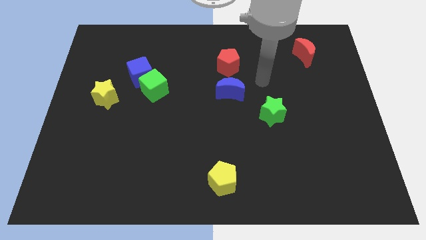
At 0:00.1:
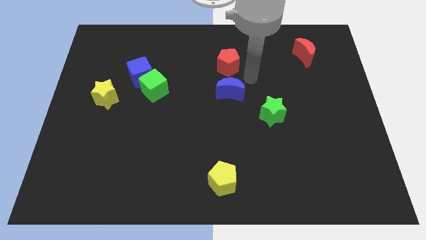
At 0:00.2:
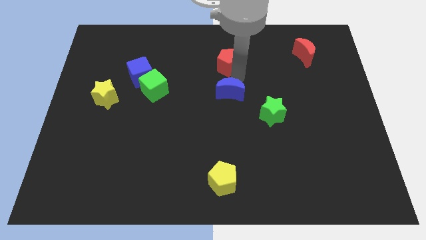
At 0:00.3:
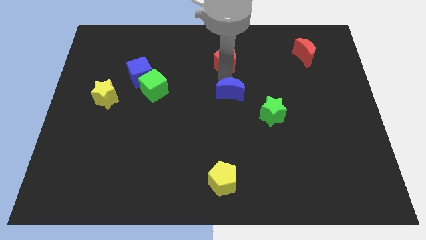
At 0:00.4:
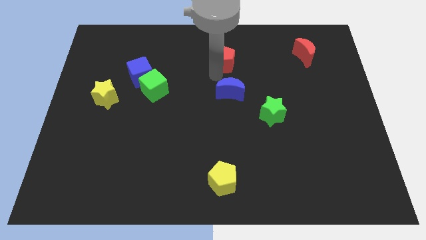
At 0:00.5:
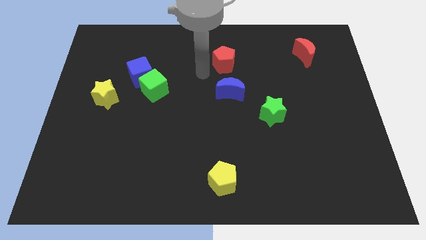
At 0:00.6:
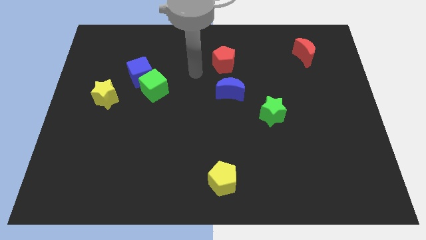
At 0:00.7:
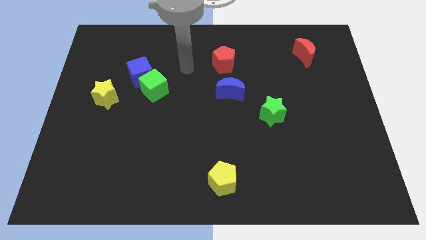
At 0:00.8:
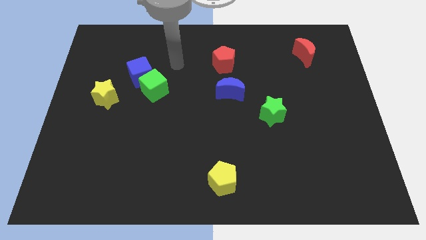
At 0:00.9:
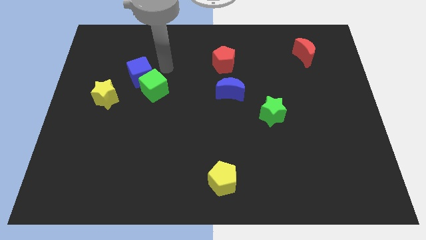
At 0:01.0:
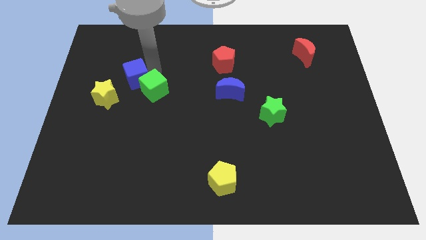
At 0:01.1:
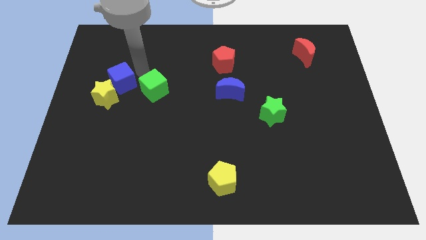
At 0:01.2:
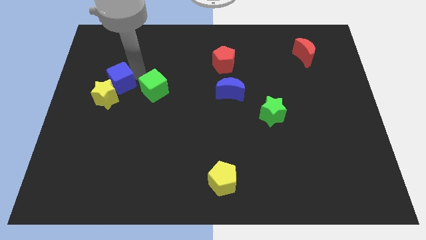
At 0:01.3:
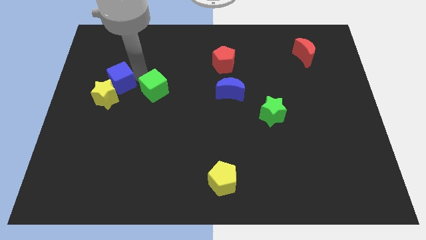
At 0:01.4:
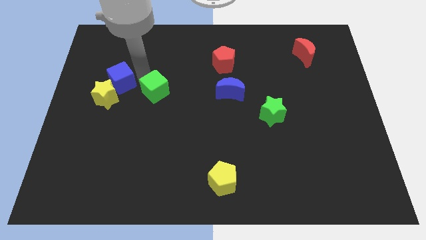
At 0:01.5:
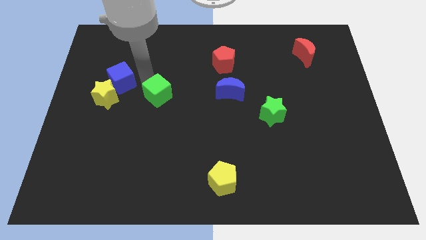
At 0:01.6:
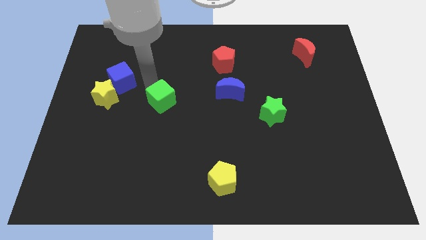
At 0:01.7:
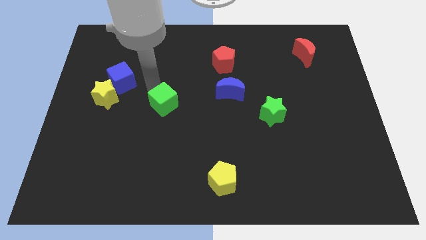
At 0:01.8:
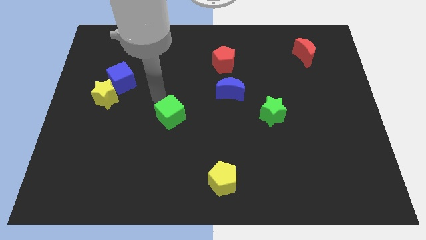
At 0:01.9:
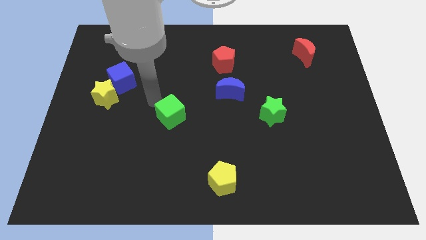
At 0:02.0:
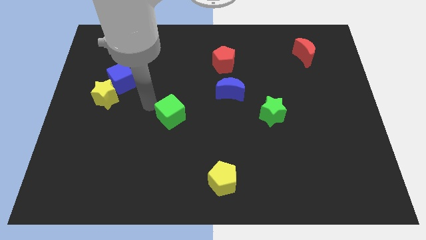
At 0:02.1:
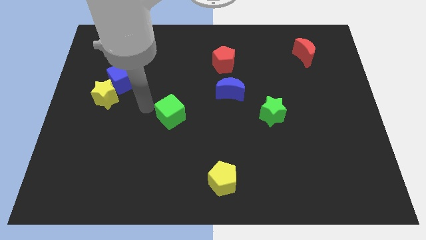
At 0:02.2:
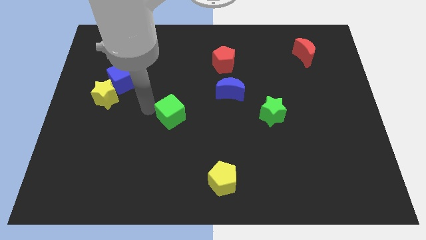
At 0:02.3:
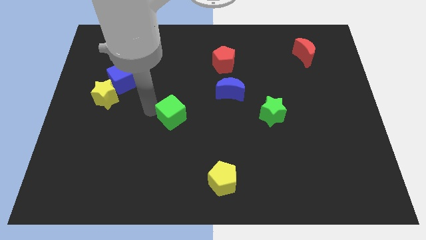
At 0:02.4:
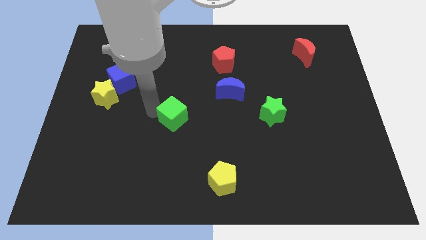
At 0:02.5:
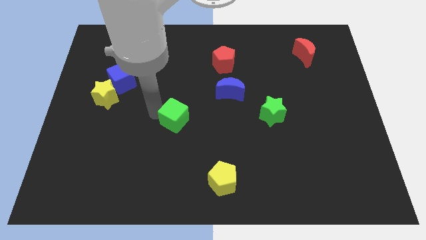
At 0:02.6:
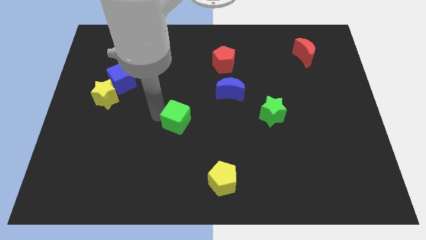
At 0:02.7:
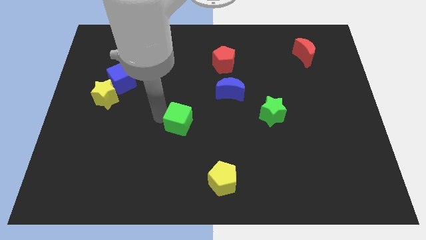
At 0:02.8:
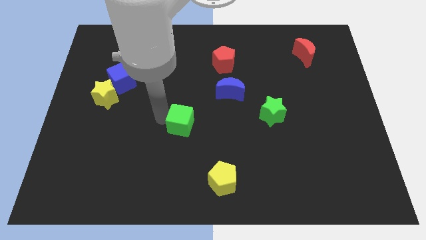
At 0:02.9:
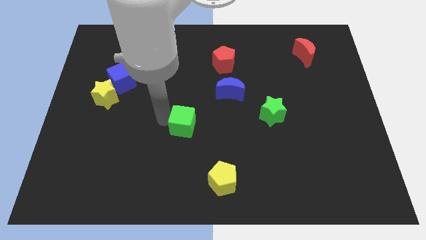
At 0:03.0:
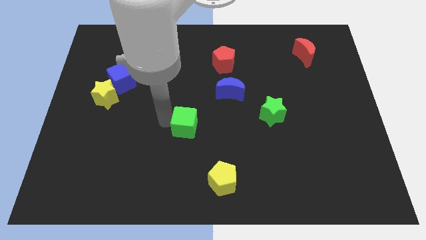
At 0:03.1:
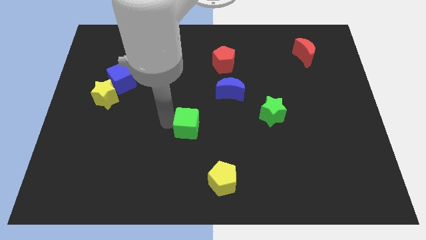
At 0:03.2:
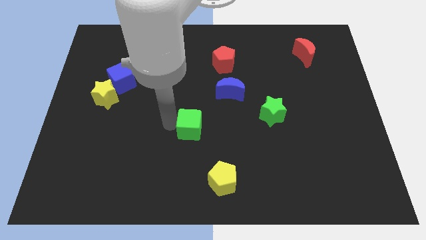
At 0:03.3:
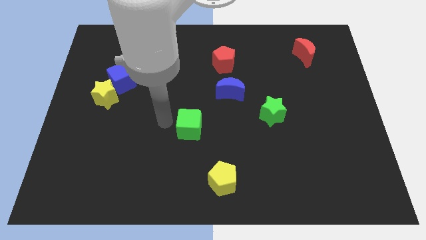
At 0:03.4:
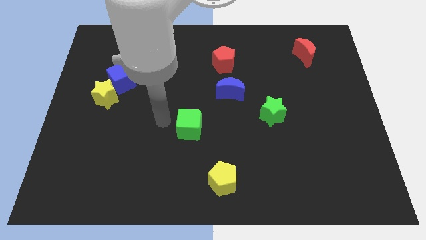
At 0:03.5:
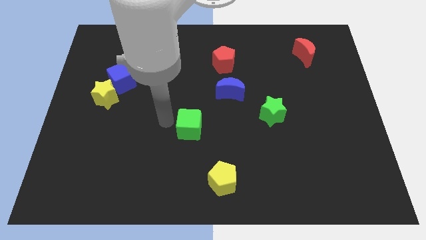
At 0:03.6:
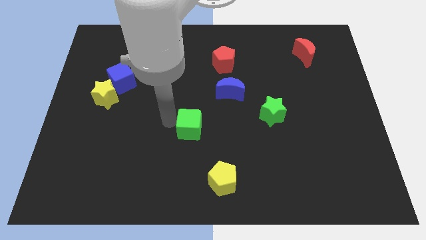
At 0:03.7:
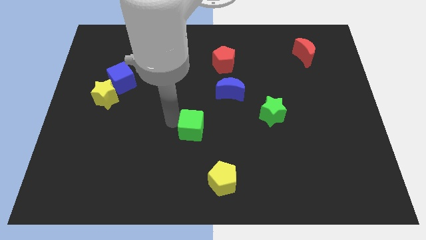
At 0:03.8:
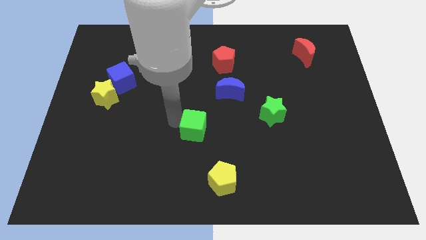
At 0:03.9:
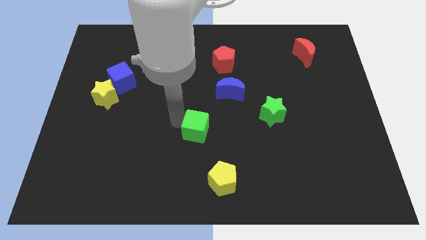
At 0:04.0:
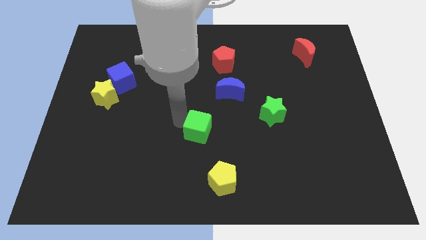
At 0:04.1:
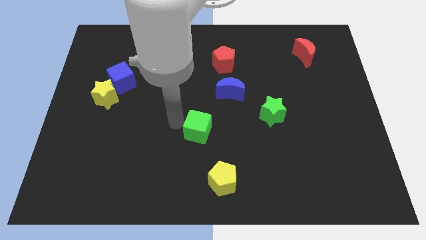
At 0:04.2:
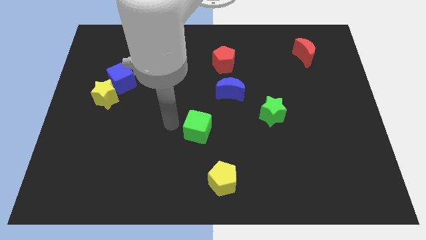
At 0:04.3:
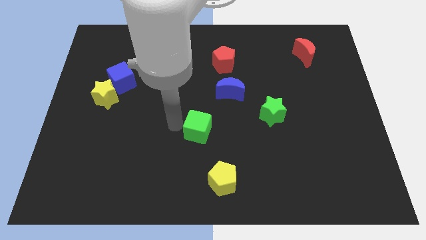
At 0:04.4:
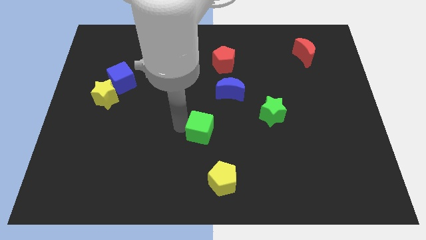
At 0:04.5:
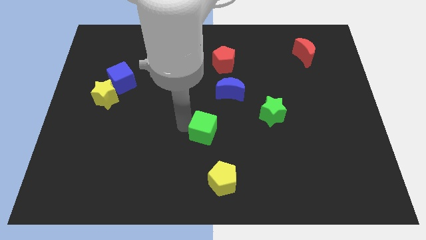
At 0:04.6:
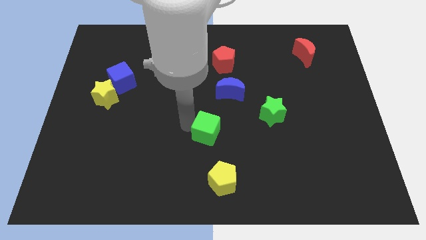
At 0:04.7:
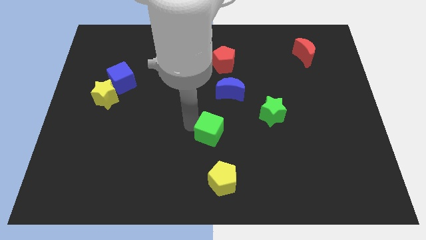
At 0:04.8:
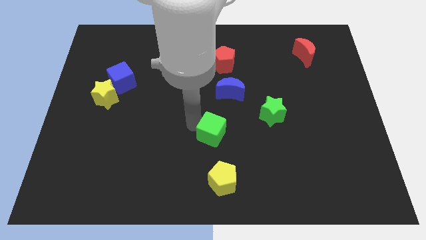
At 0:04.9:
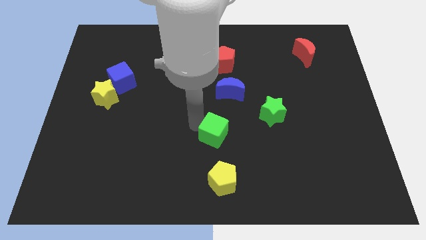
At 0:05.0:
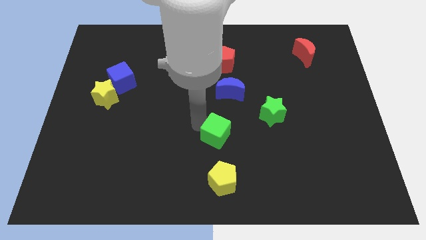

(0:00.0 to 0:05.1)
push the green cube downwards and to the right diagonally

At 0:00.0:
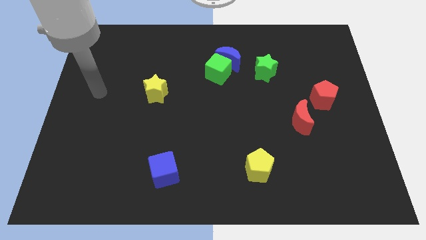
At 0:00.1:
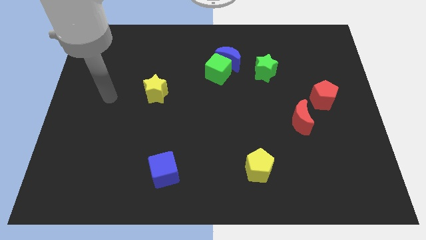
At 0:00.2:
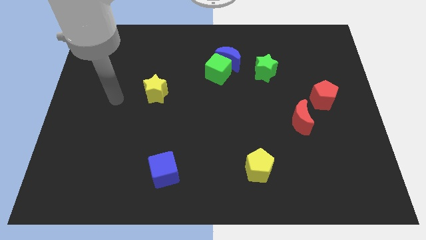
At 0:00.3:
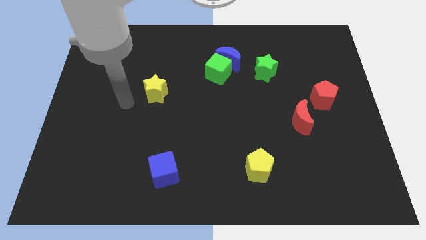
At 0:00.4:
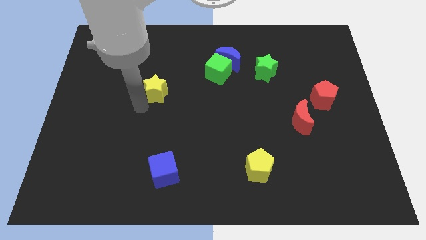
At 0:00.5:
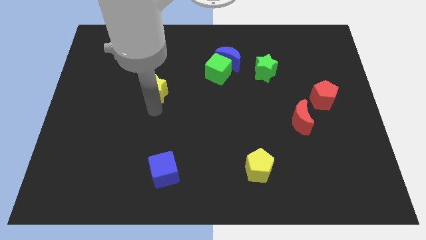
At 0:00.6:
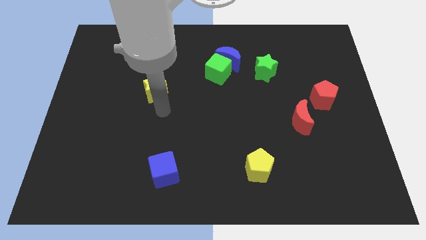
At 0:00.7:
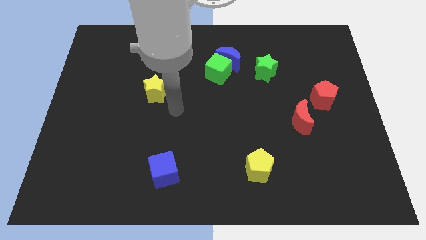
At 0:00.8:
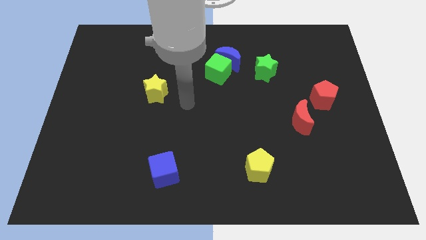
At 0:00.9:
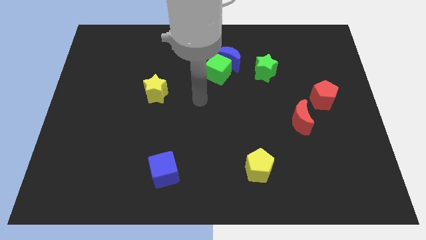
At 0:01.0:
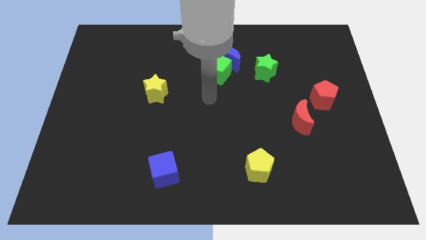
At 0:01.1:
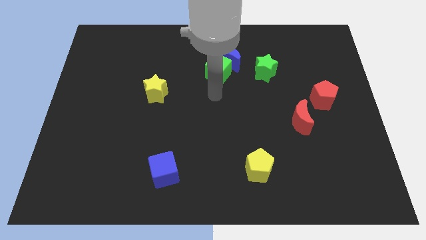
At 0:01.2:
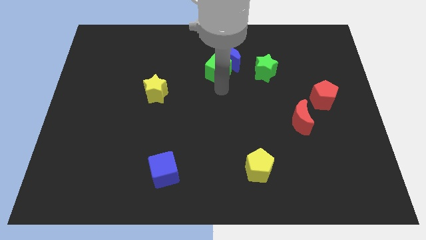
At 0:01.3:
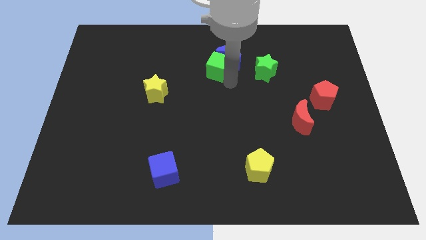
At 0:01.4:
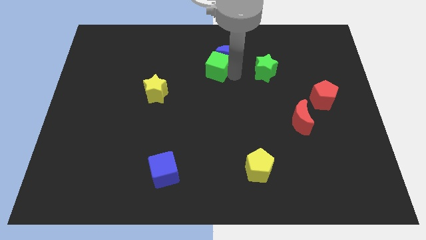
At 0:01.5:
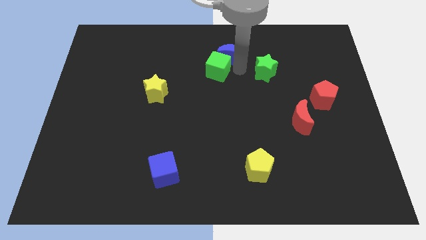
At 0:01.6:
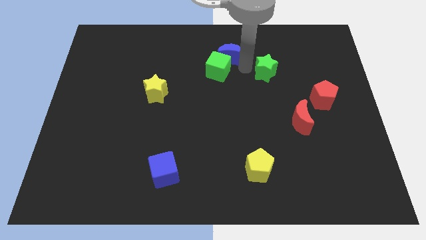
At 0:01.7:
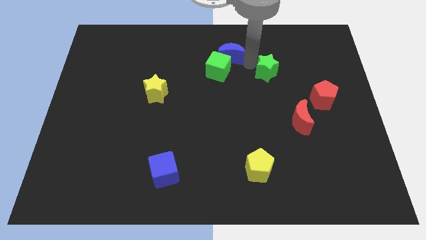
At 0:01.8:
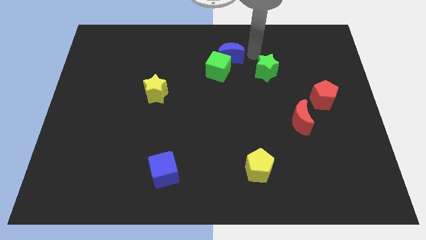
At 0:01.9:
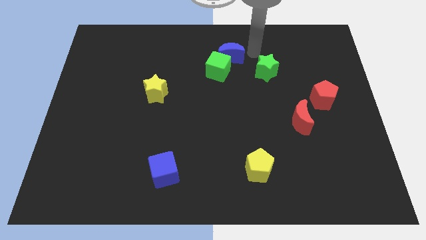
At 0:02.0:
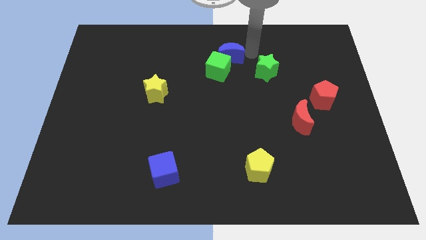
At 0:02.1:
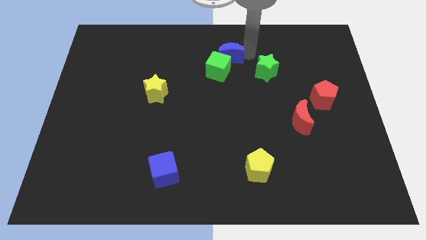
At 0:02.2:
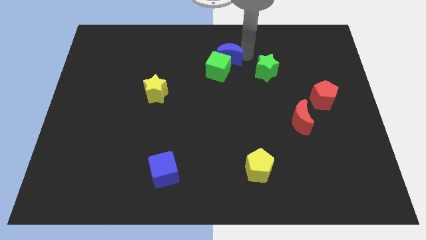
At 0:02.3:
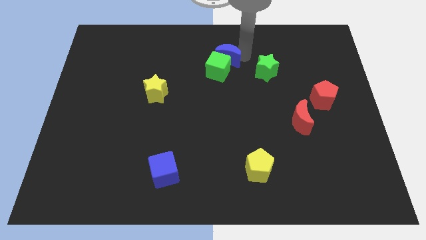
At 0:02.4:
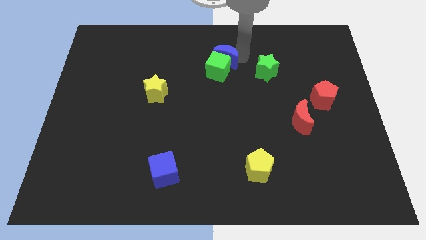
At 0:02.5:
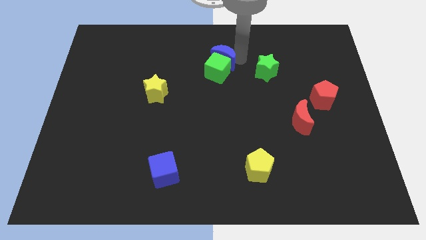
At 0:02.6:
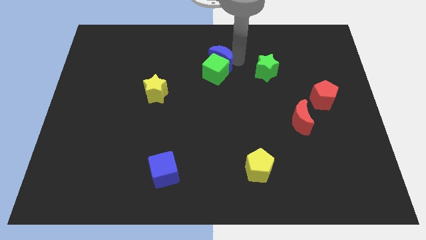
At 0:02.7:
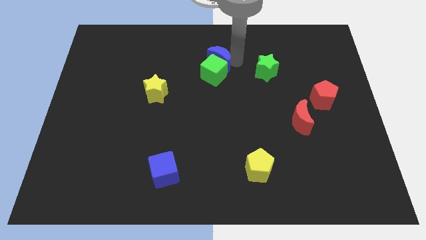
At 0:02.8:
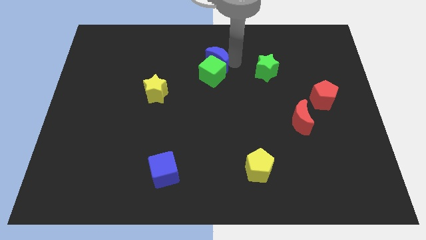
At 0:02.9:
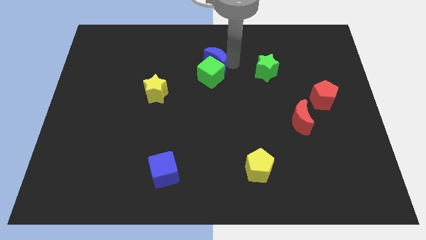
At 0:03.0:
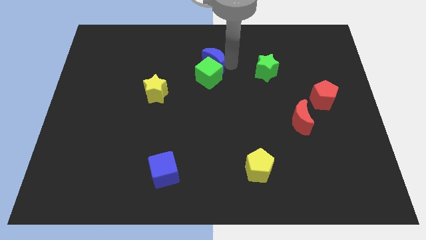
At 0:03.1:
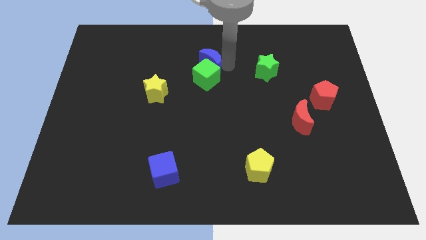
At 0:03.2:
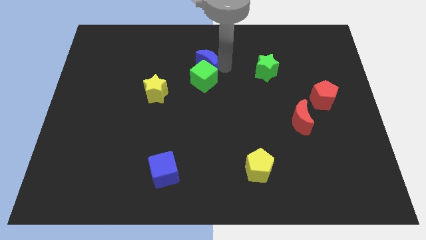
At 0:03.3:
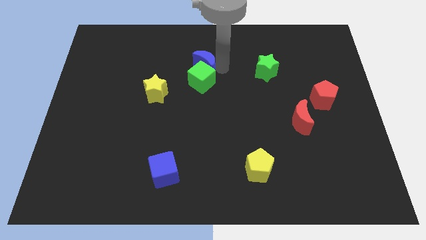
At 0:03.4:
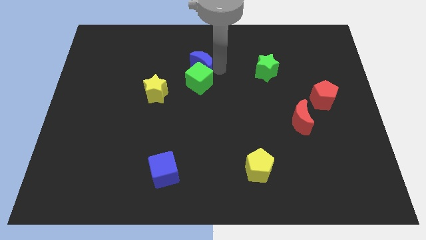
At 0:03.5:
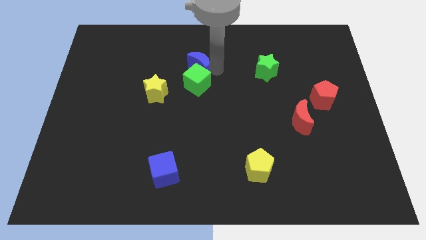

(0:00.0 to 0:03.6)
slightly push the blue moon left
